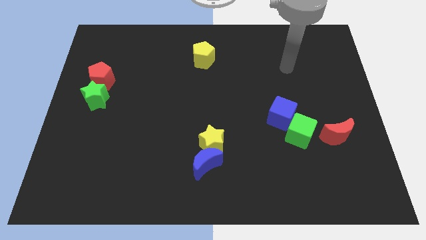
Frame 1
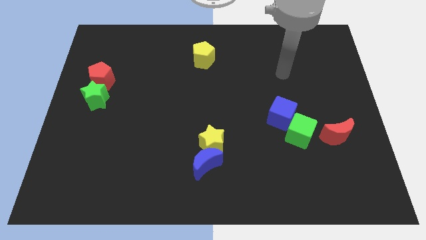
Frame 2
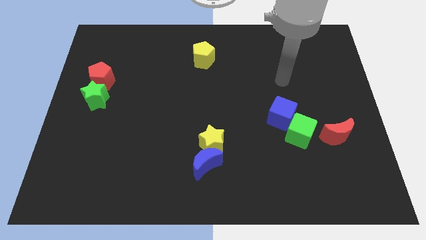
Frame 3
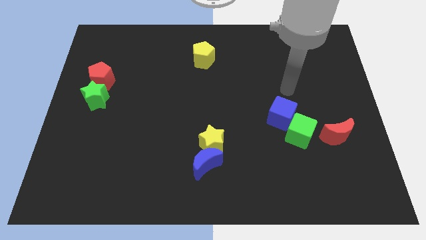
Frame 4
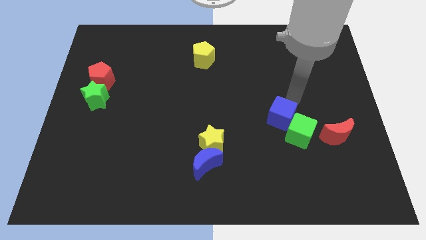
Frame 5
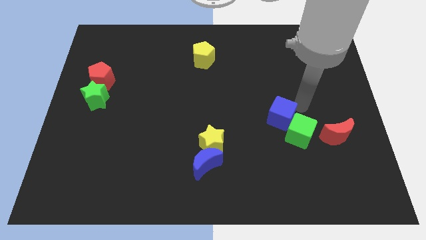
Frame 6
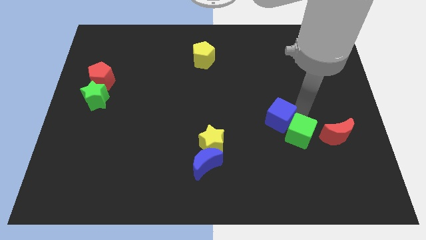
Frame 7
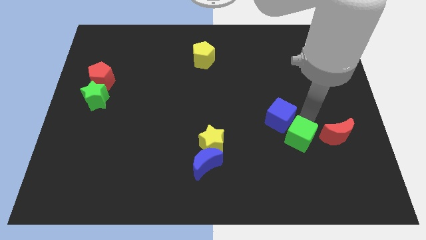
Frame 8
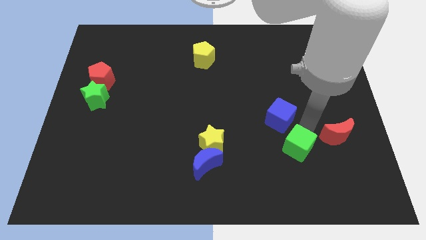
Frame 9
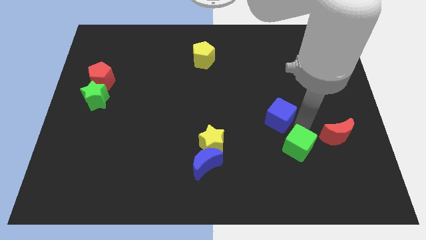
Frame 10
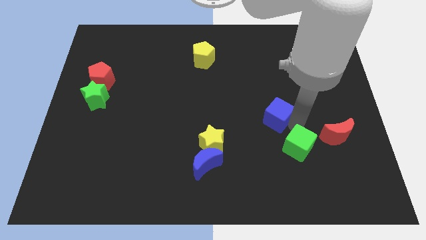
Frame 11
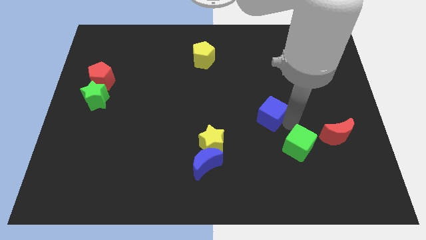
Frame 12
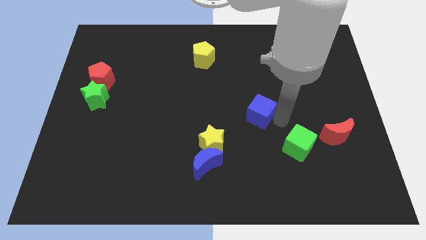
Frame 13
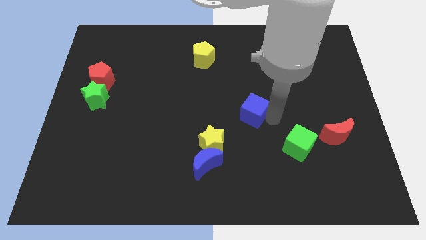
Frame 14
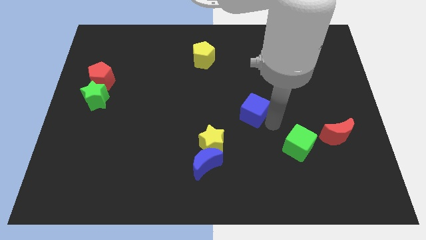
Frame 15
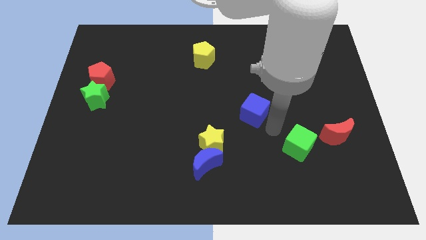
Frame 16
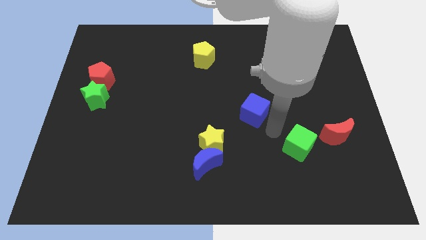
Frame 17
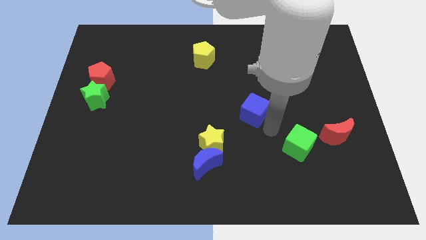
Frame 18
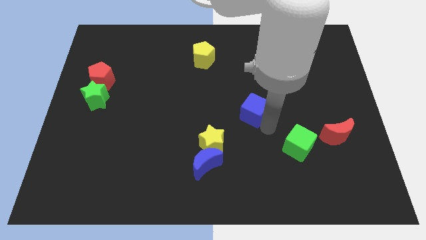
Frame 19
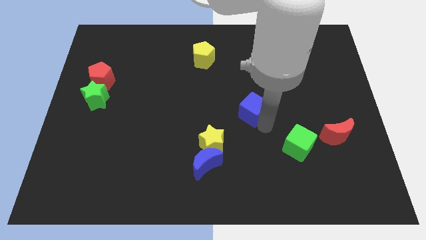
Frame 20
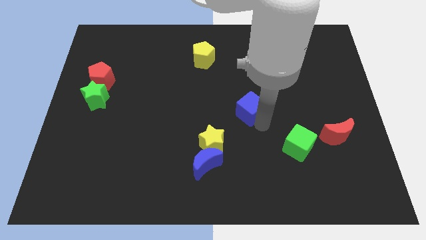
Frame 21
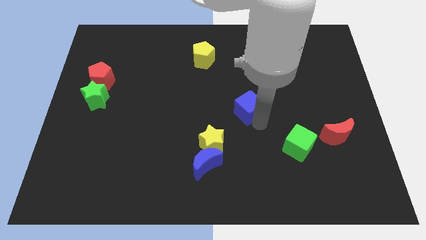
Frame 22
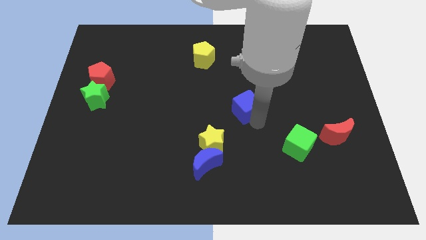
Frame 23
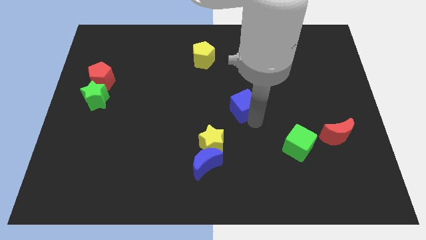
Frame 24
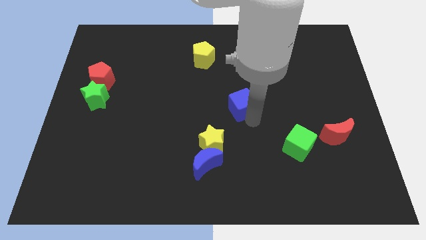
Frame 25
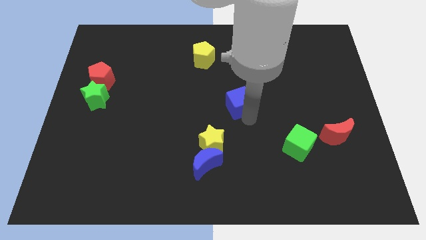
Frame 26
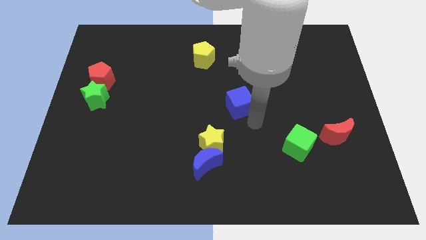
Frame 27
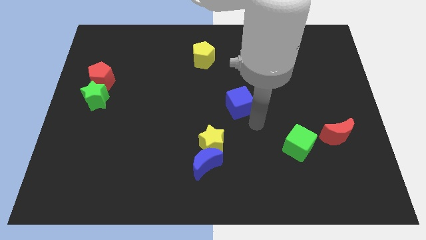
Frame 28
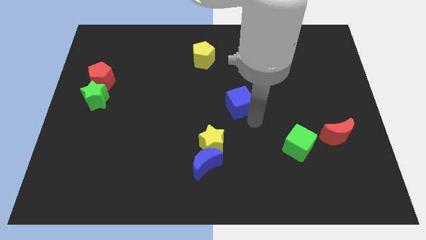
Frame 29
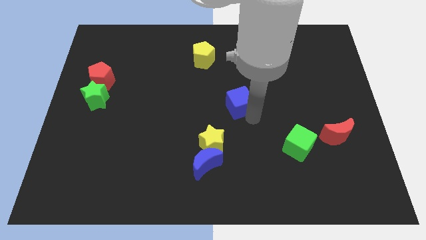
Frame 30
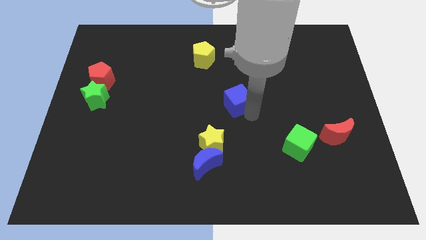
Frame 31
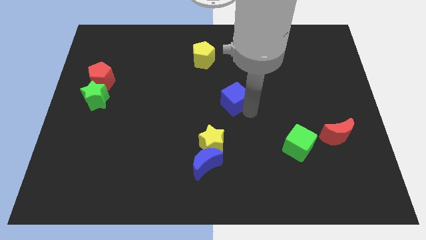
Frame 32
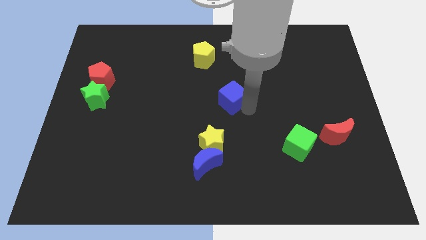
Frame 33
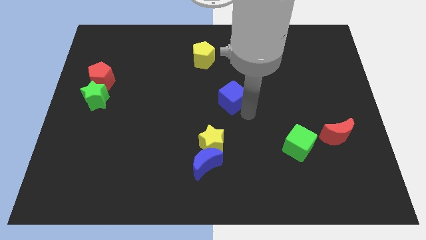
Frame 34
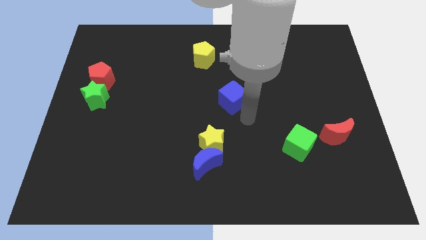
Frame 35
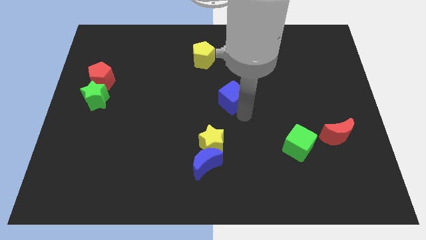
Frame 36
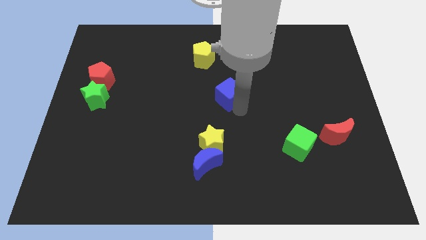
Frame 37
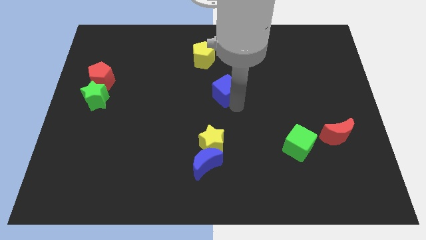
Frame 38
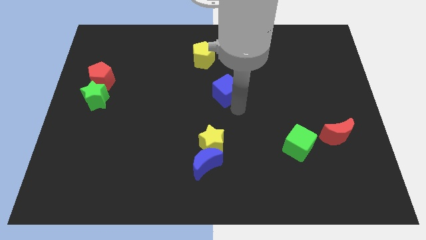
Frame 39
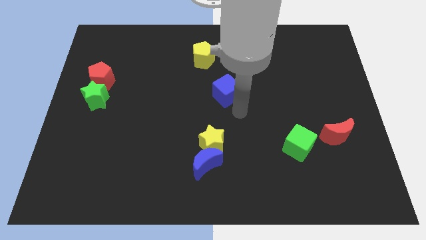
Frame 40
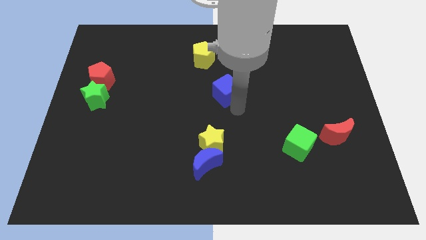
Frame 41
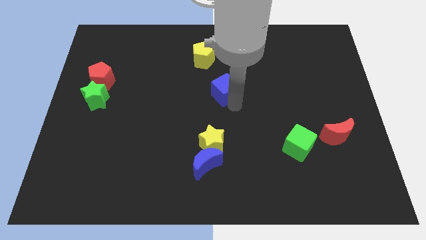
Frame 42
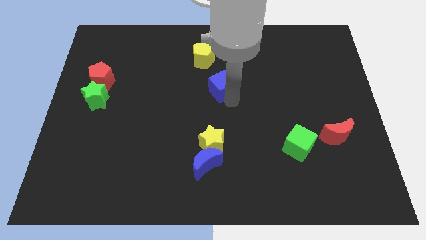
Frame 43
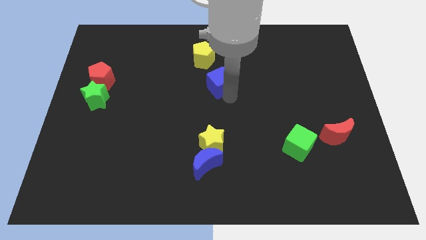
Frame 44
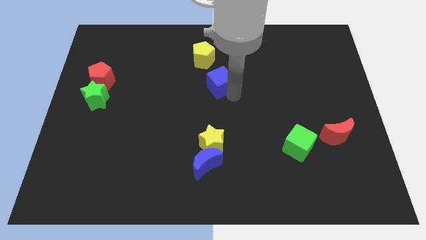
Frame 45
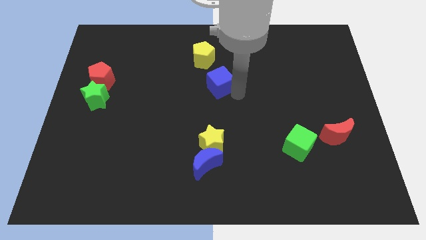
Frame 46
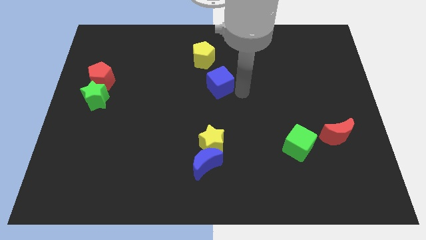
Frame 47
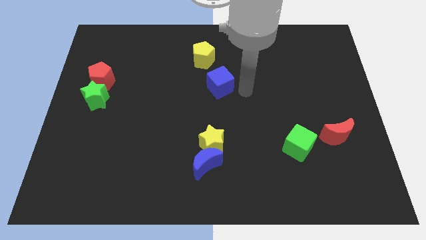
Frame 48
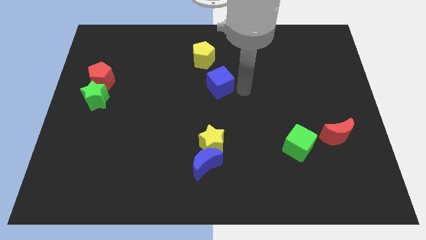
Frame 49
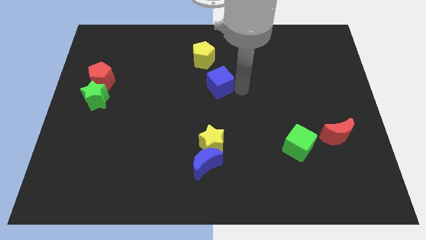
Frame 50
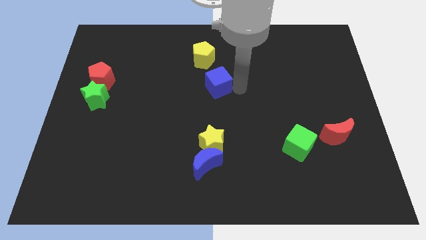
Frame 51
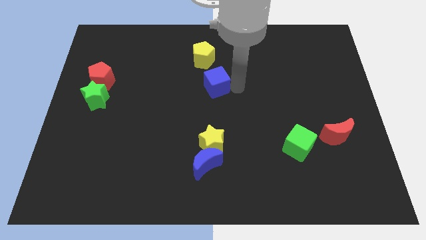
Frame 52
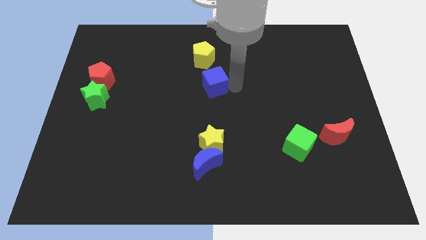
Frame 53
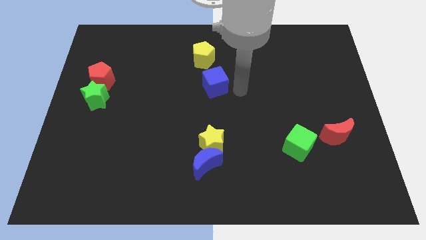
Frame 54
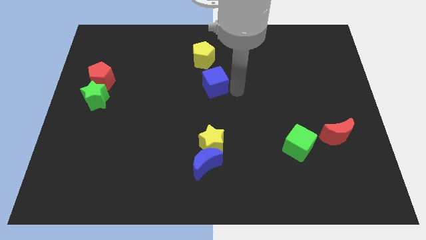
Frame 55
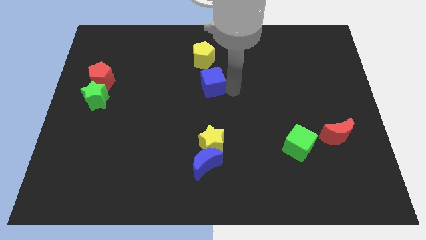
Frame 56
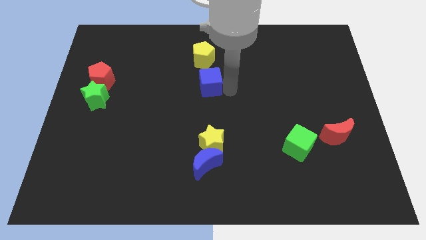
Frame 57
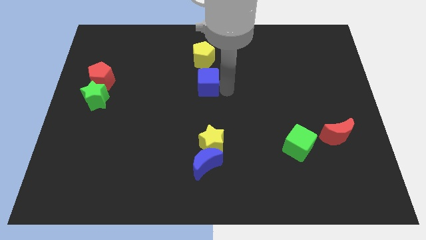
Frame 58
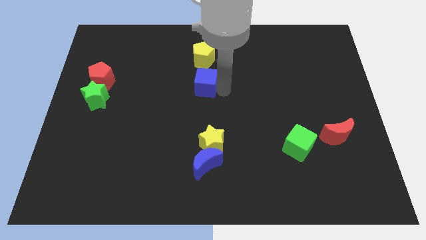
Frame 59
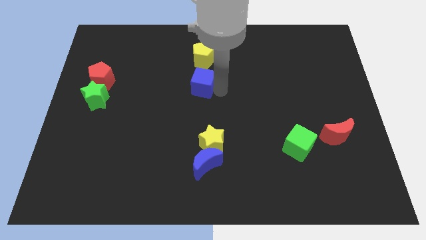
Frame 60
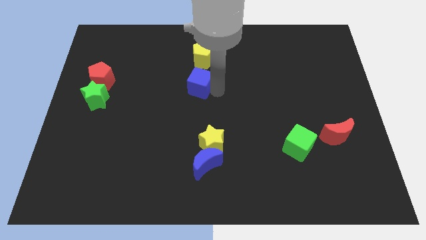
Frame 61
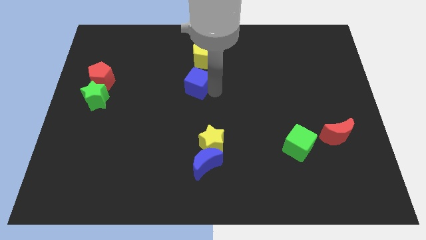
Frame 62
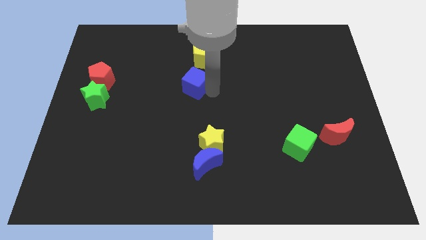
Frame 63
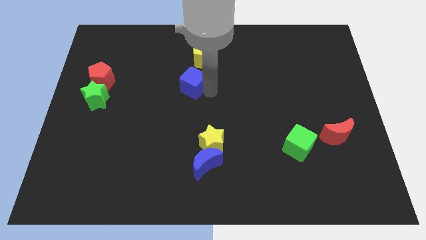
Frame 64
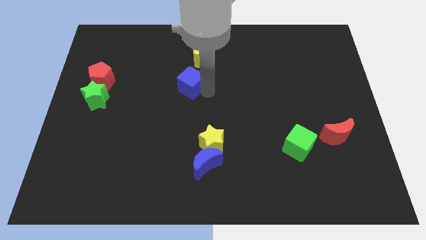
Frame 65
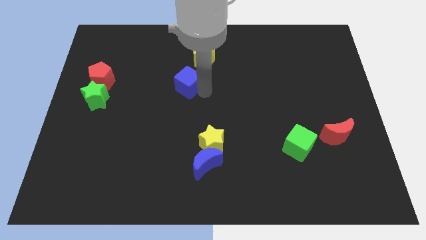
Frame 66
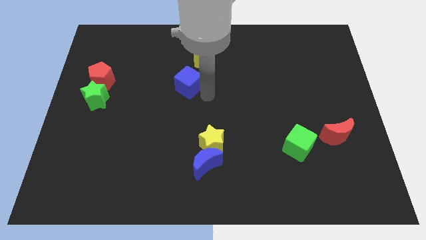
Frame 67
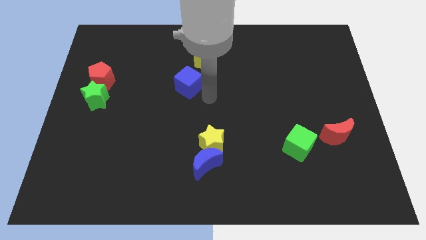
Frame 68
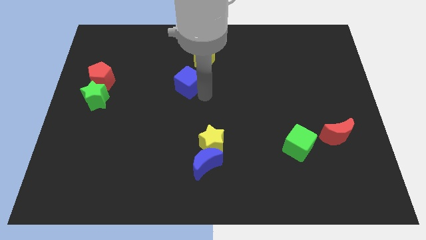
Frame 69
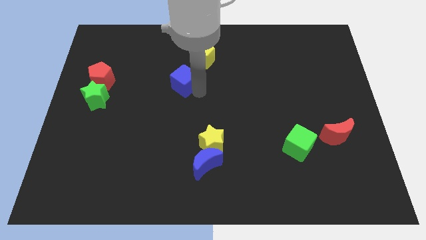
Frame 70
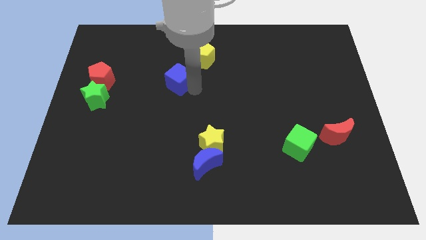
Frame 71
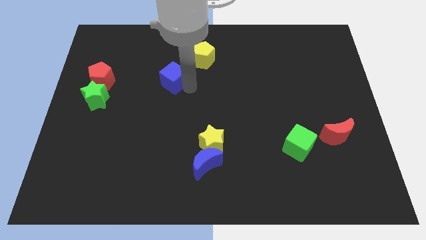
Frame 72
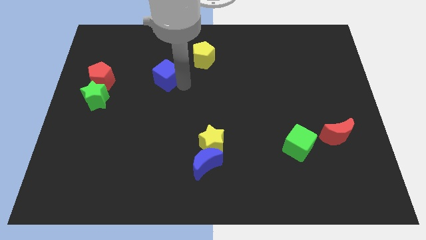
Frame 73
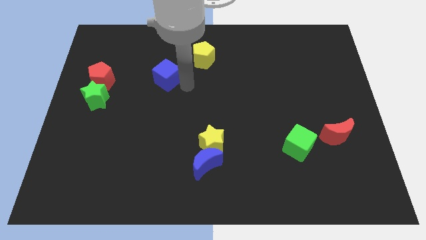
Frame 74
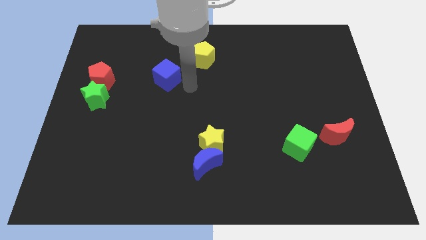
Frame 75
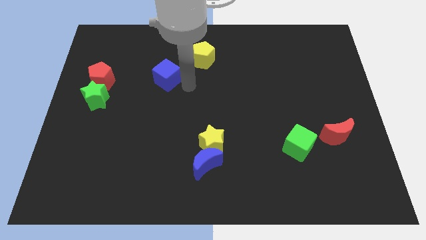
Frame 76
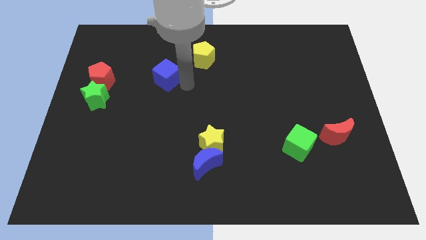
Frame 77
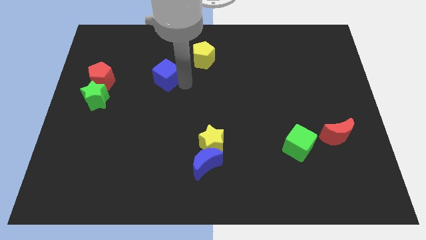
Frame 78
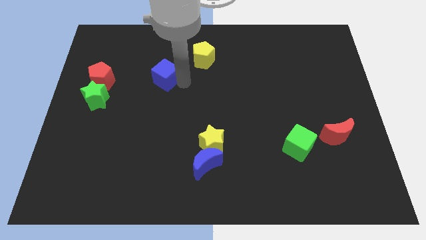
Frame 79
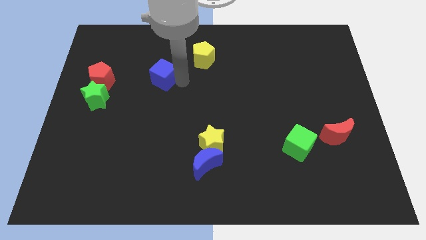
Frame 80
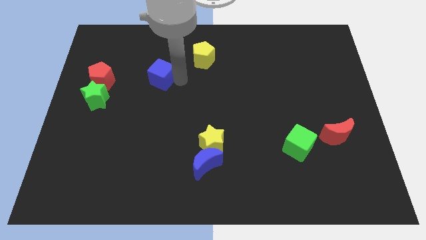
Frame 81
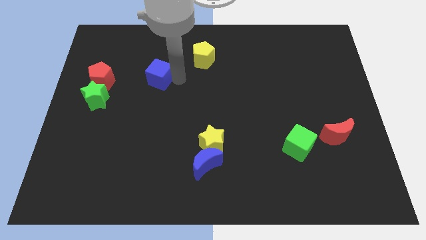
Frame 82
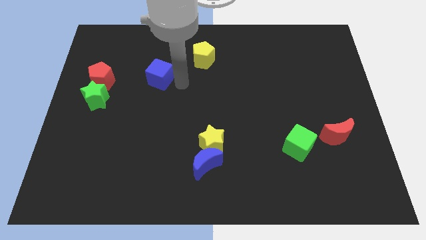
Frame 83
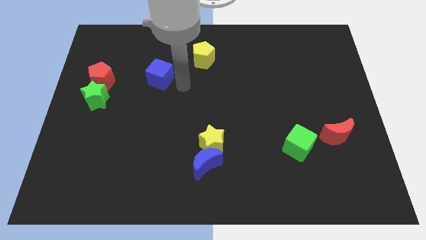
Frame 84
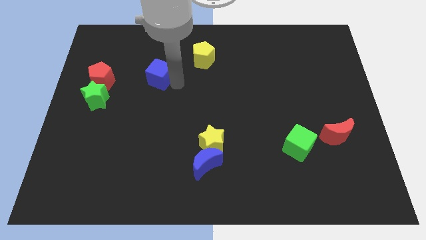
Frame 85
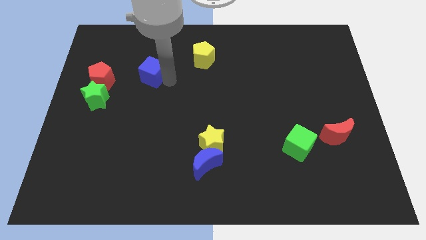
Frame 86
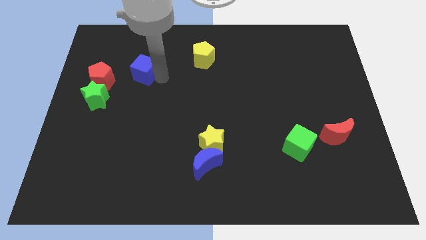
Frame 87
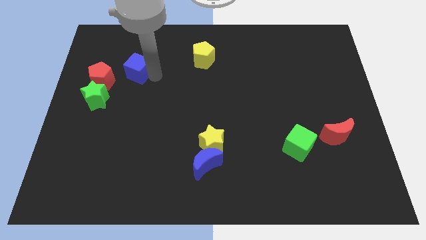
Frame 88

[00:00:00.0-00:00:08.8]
push the blue cube to the top right side of the red pentagon
